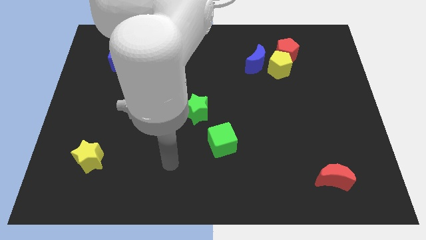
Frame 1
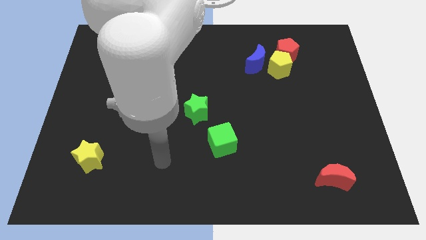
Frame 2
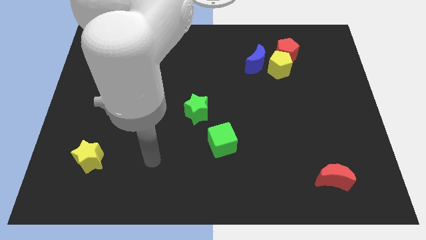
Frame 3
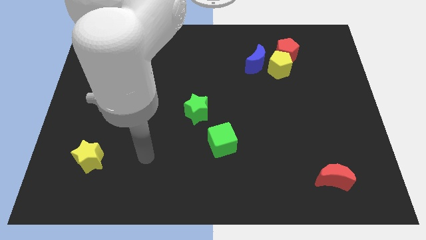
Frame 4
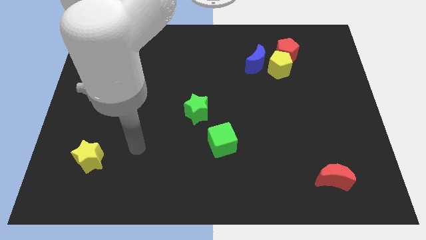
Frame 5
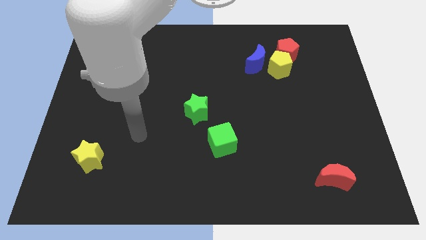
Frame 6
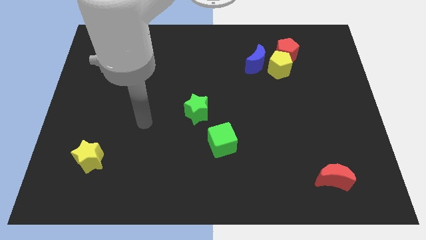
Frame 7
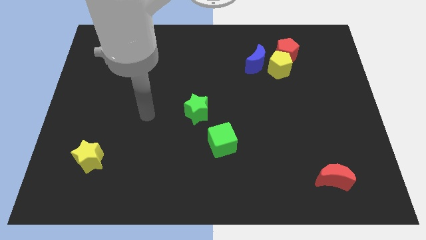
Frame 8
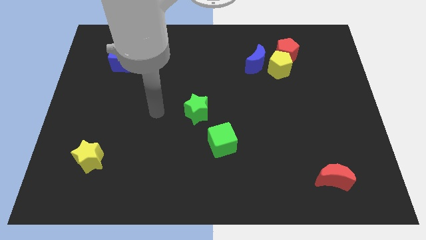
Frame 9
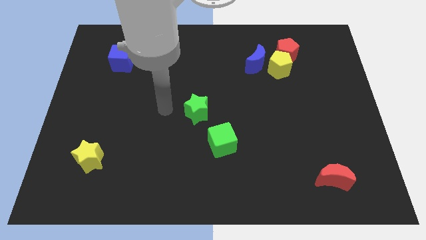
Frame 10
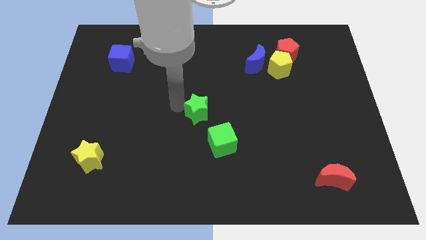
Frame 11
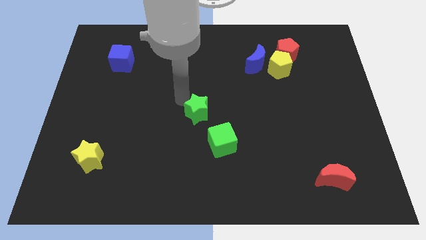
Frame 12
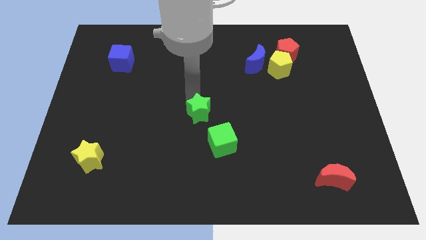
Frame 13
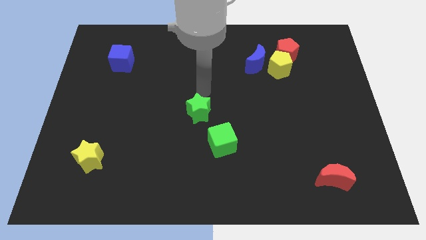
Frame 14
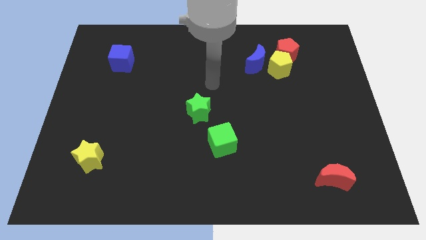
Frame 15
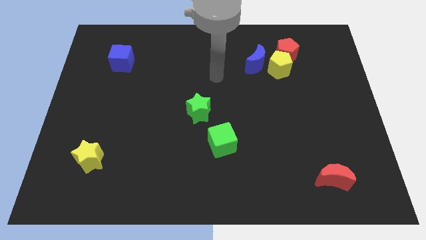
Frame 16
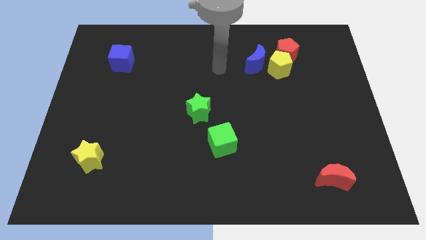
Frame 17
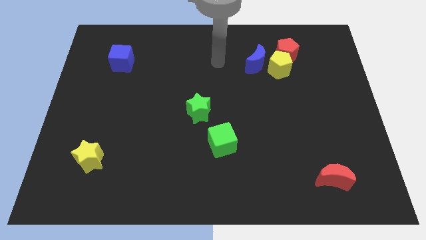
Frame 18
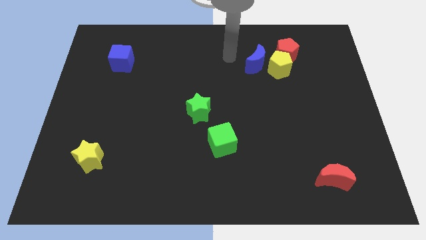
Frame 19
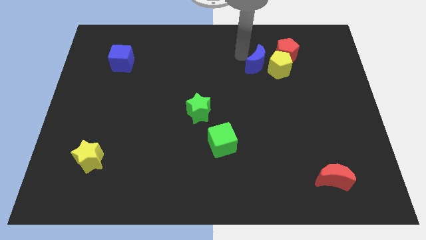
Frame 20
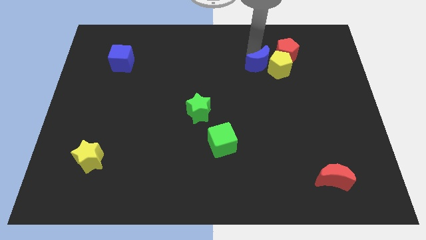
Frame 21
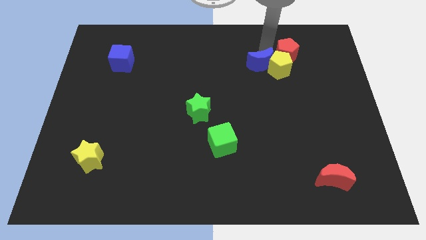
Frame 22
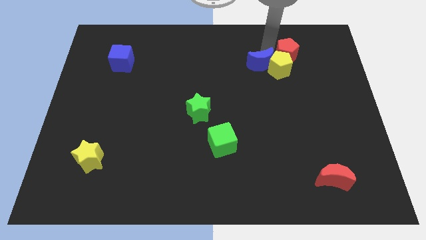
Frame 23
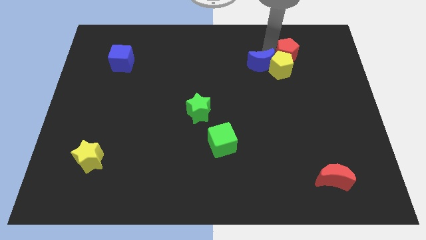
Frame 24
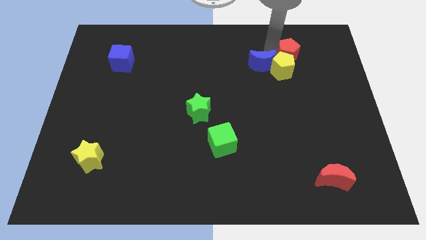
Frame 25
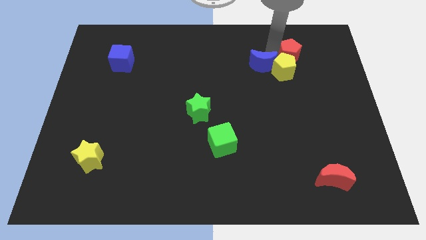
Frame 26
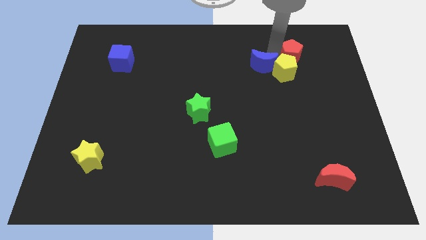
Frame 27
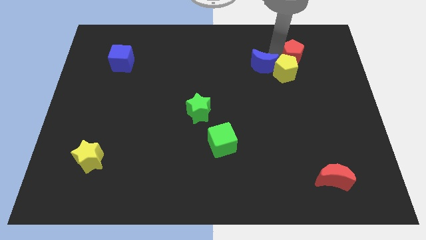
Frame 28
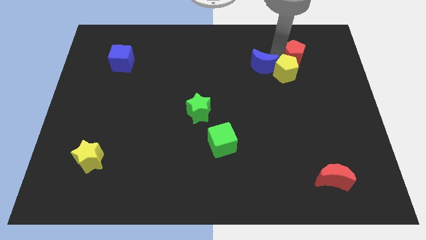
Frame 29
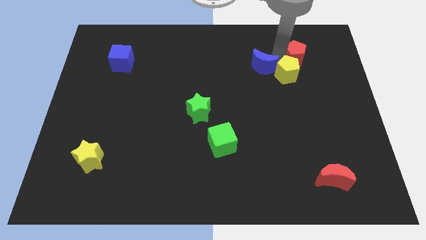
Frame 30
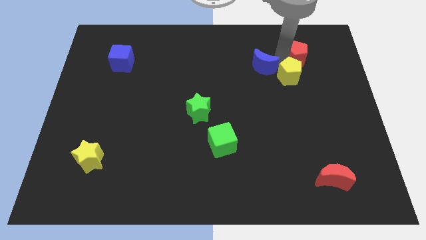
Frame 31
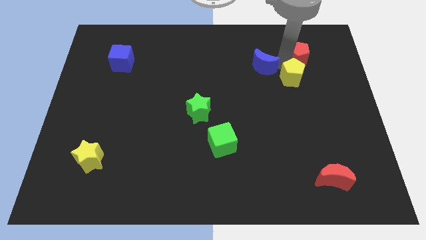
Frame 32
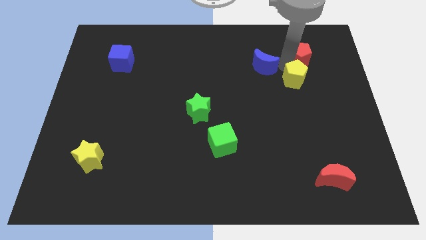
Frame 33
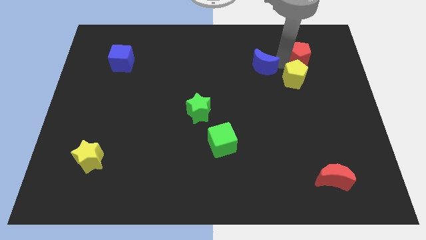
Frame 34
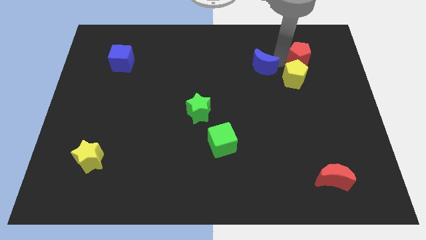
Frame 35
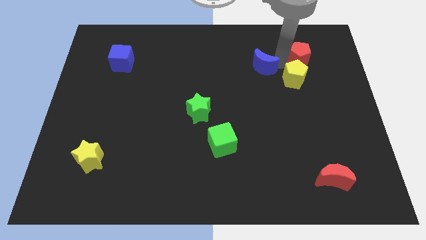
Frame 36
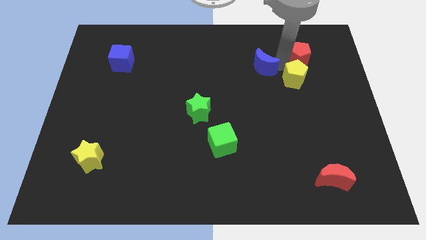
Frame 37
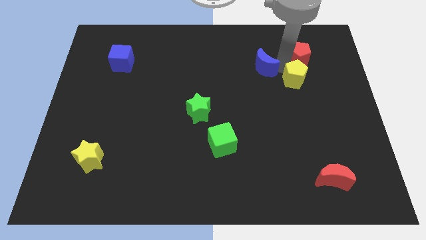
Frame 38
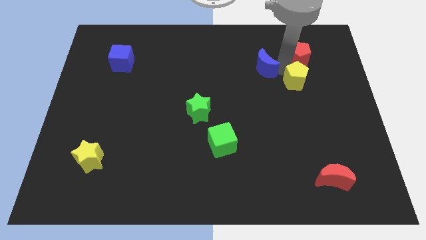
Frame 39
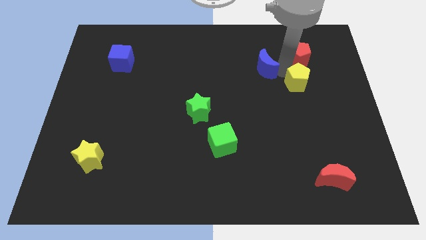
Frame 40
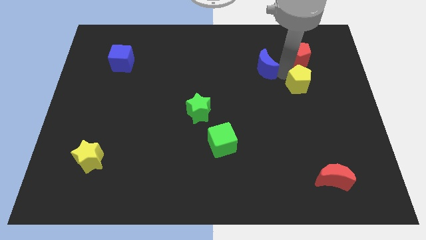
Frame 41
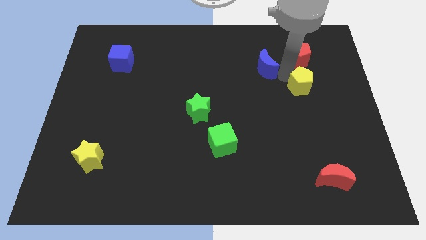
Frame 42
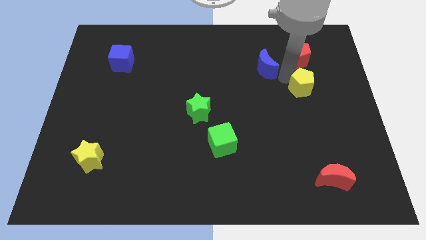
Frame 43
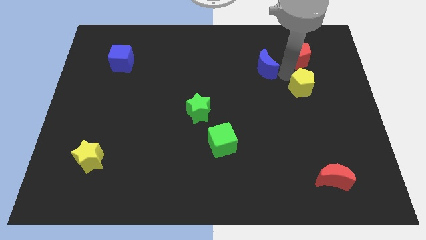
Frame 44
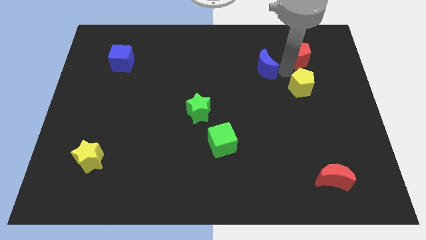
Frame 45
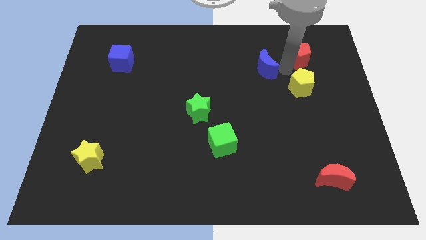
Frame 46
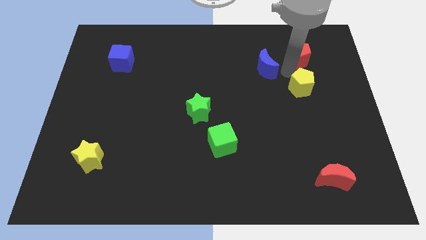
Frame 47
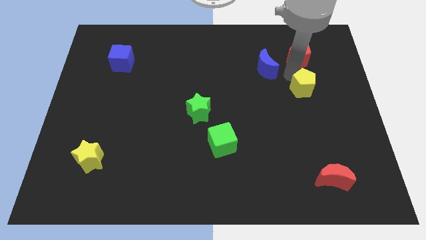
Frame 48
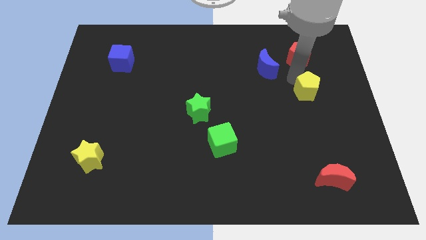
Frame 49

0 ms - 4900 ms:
pull the yellow pentagon apart from the red pentagon and blue moon

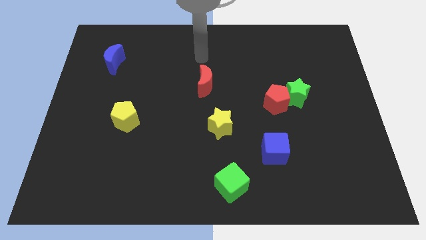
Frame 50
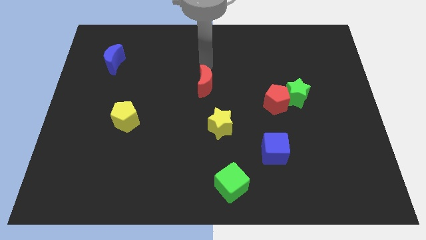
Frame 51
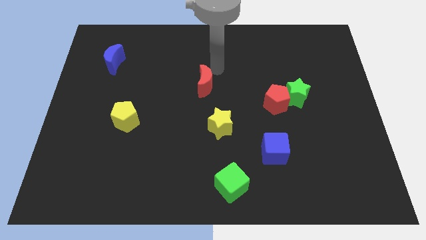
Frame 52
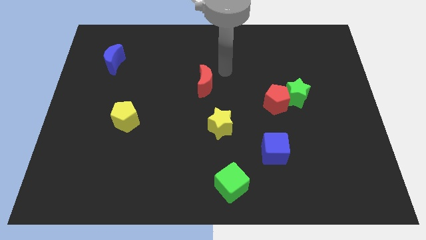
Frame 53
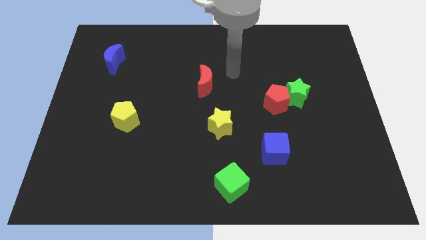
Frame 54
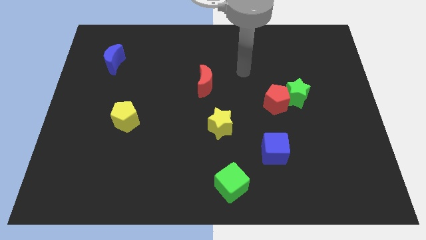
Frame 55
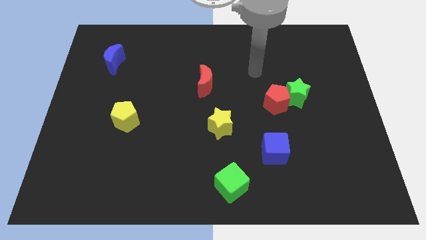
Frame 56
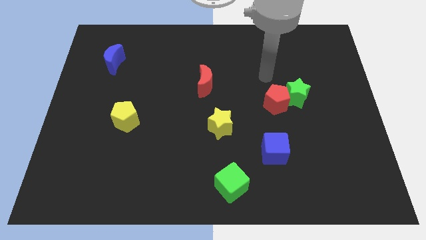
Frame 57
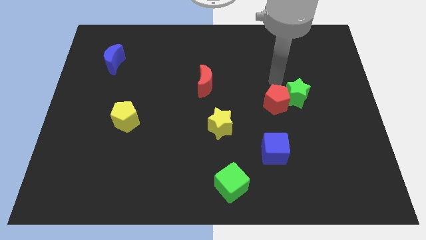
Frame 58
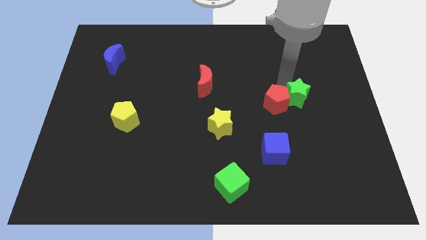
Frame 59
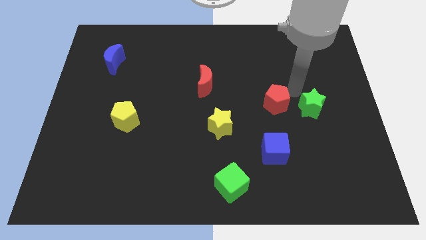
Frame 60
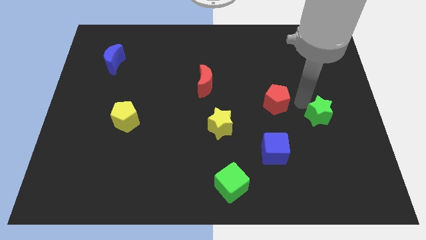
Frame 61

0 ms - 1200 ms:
separate the red pentagon from the green star

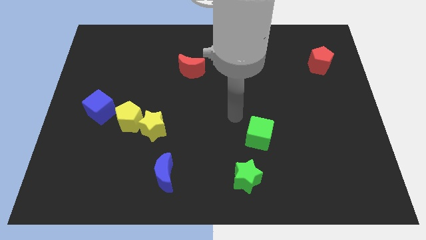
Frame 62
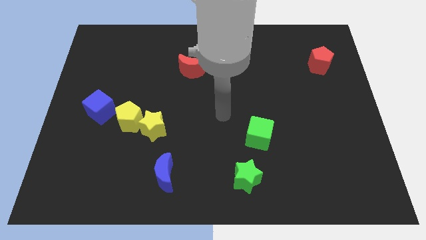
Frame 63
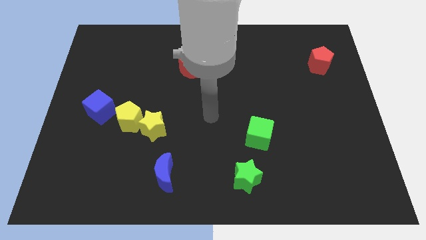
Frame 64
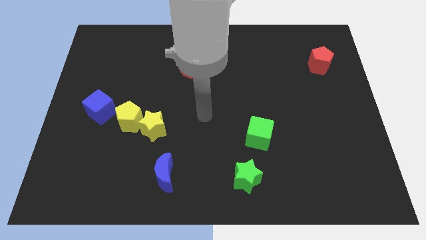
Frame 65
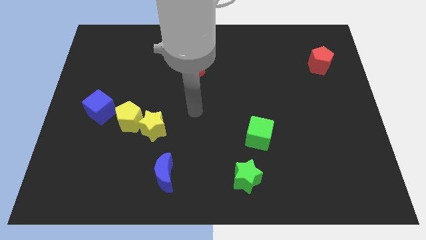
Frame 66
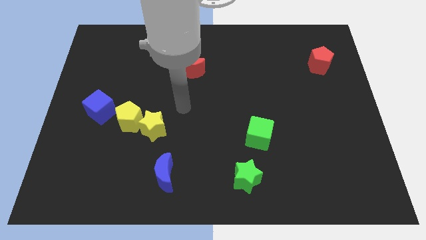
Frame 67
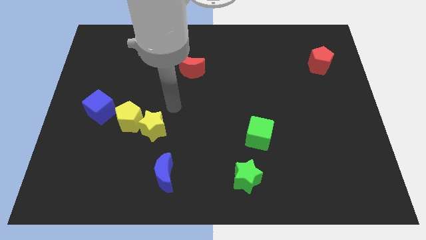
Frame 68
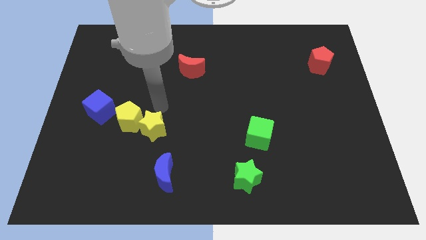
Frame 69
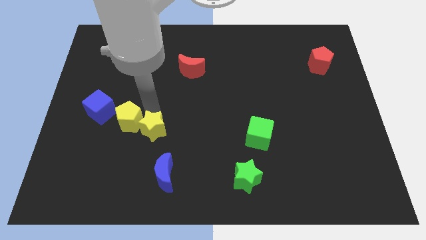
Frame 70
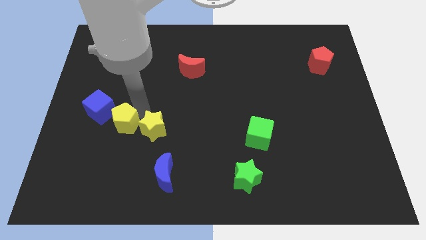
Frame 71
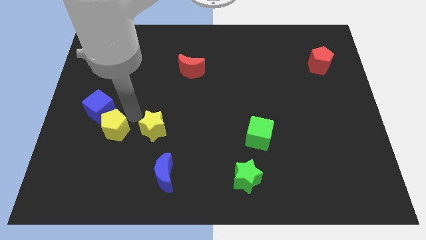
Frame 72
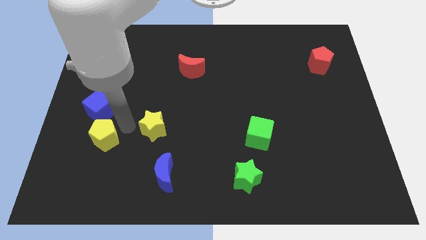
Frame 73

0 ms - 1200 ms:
pull the yellow star apart from the yellow pentagon

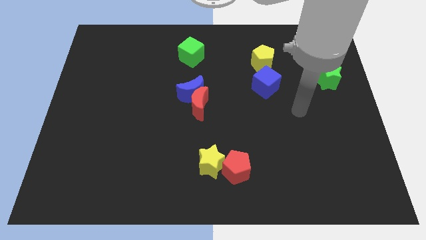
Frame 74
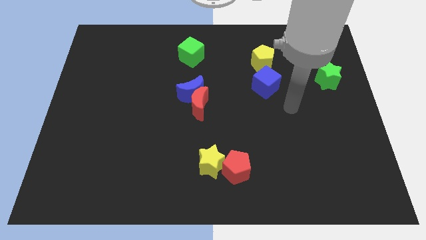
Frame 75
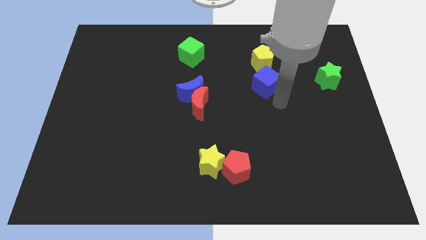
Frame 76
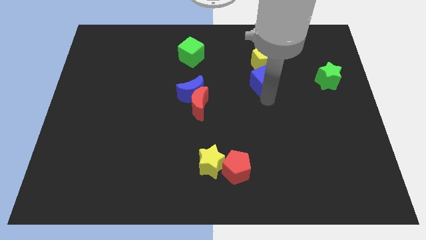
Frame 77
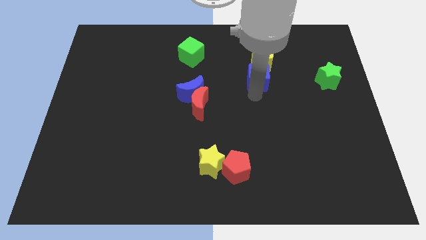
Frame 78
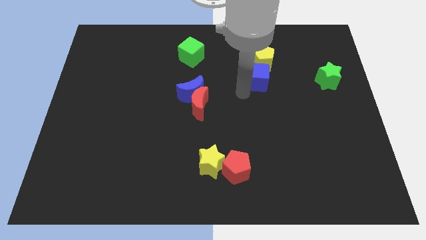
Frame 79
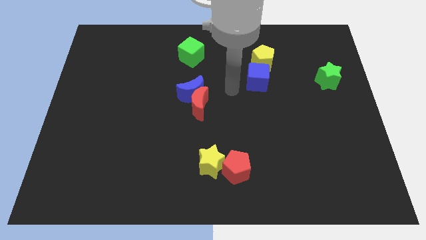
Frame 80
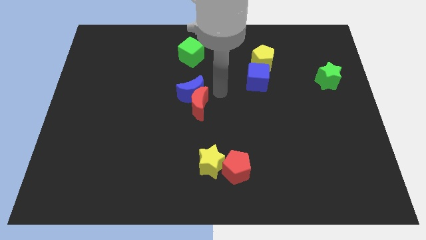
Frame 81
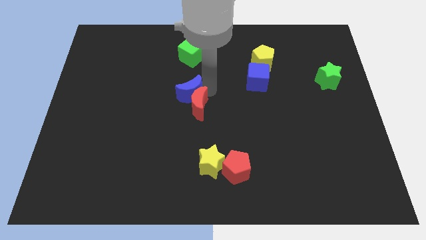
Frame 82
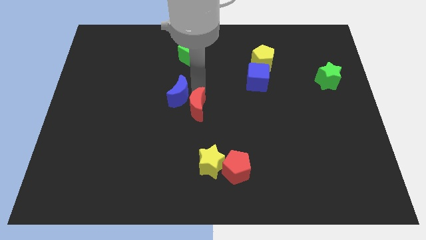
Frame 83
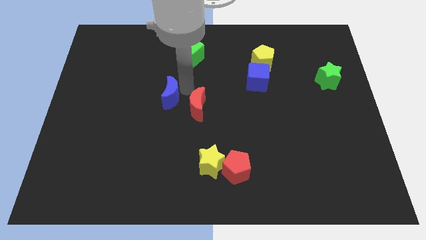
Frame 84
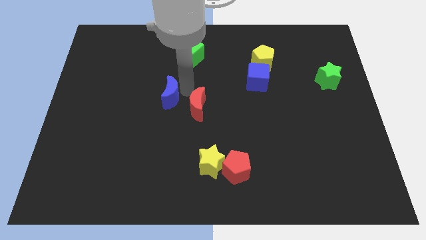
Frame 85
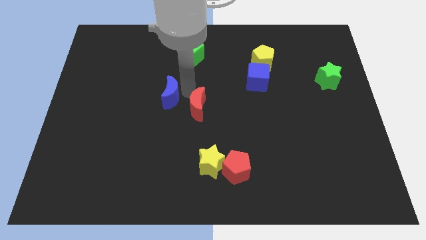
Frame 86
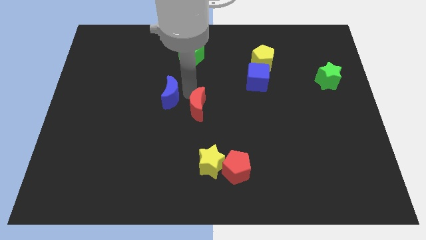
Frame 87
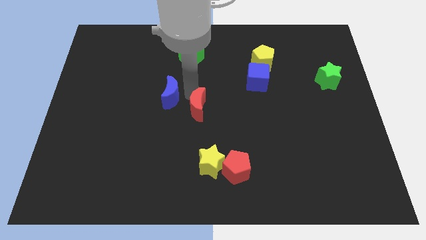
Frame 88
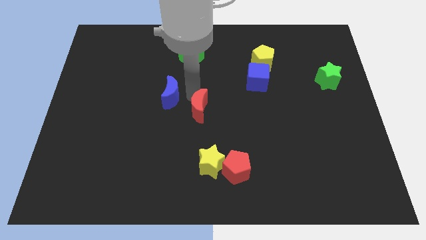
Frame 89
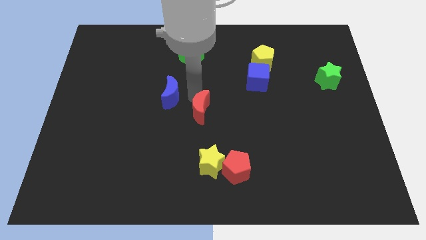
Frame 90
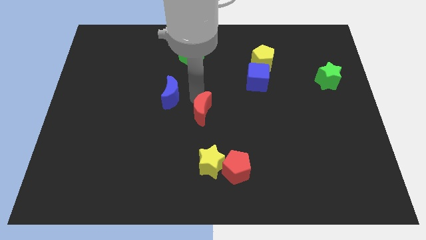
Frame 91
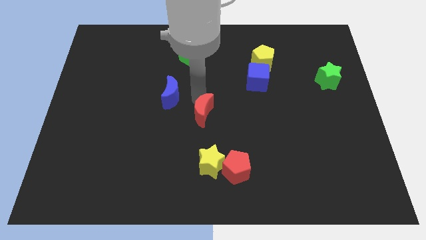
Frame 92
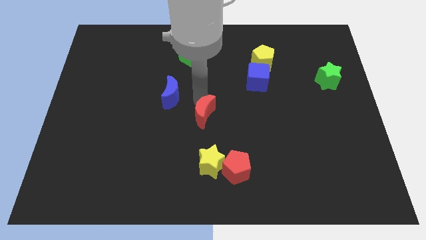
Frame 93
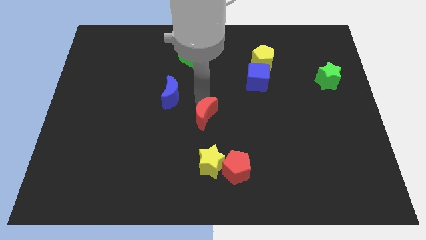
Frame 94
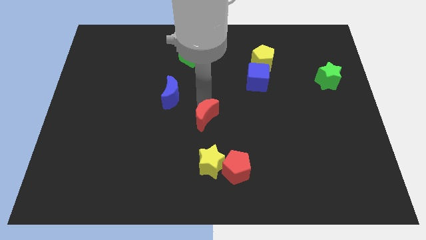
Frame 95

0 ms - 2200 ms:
separate the red moon from the blue moon
